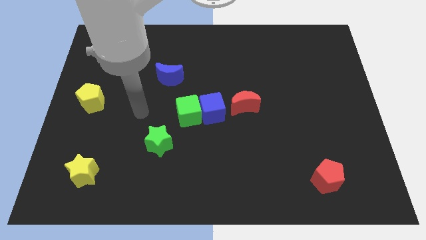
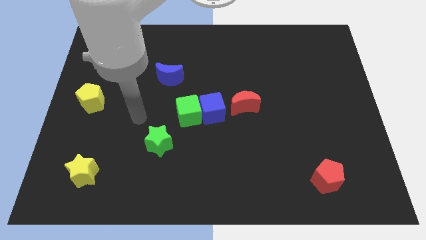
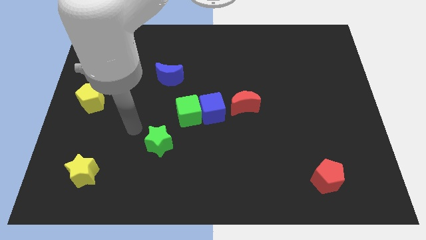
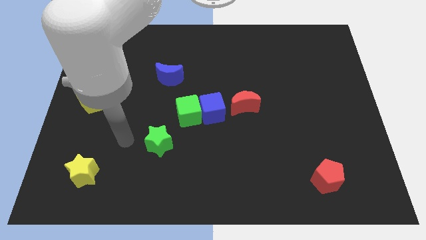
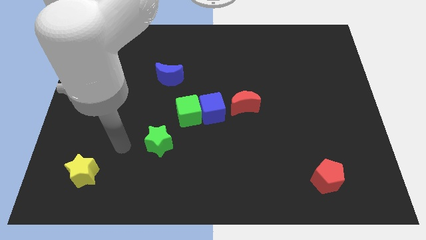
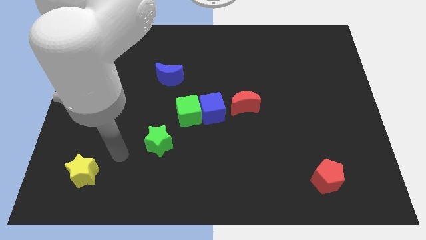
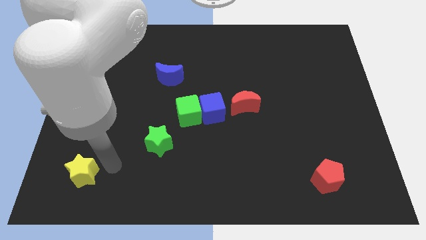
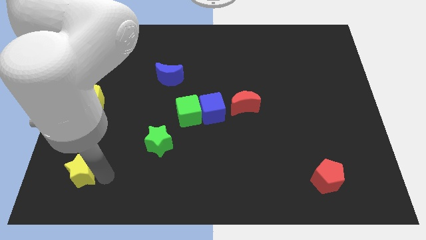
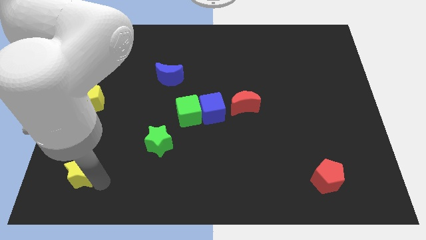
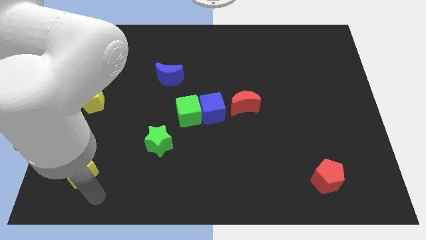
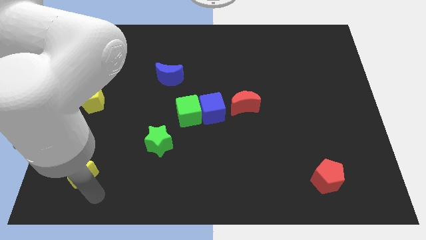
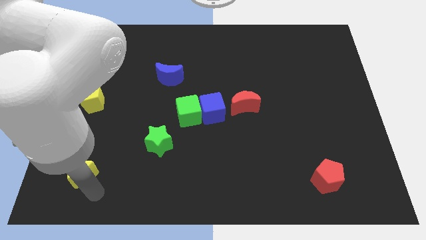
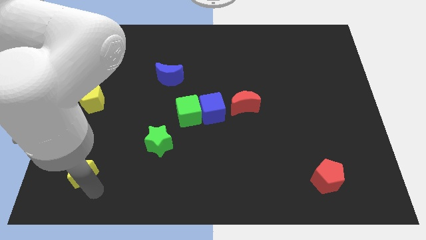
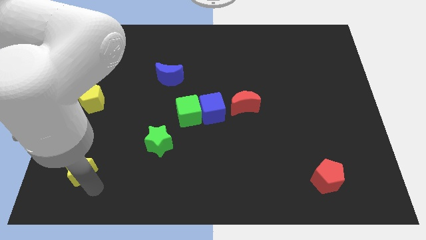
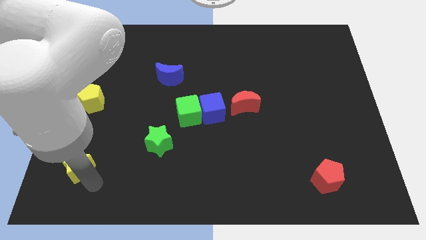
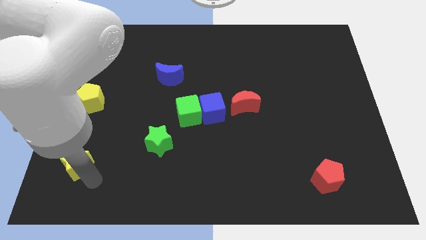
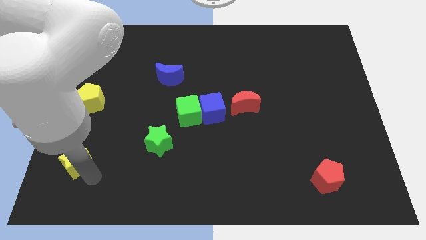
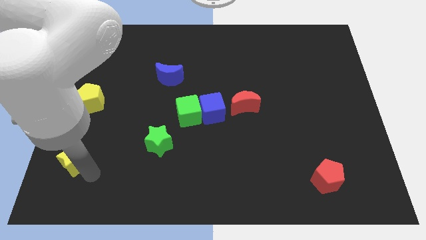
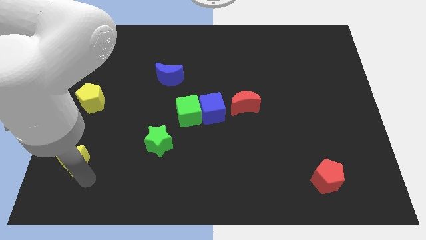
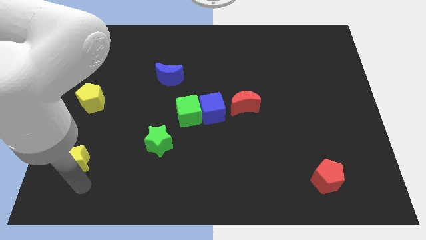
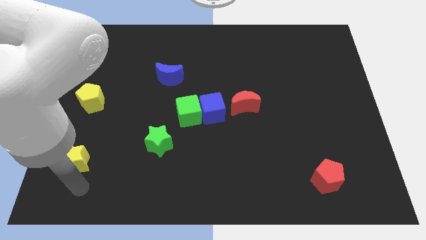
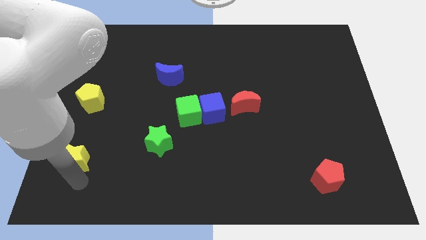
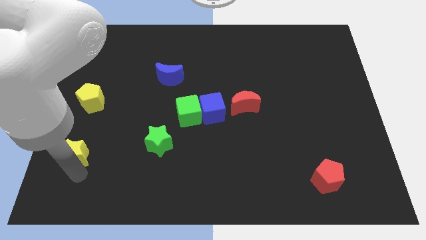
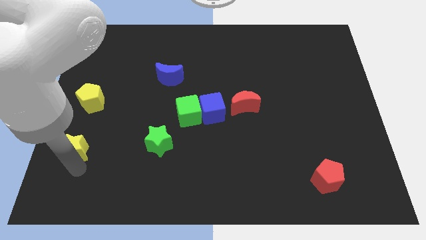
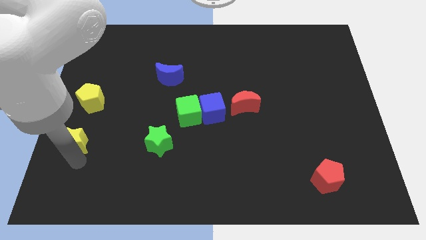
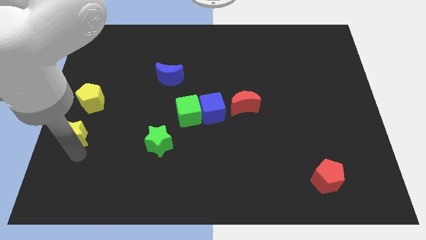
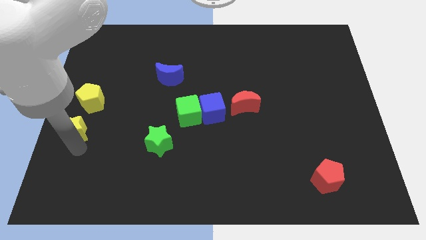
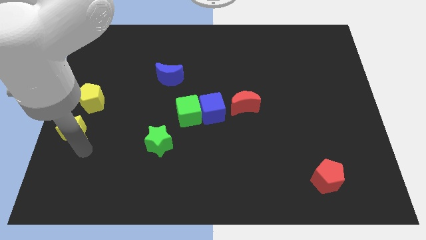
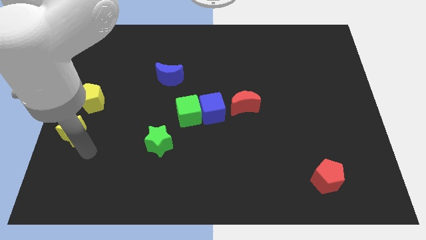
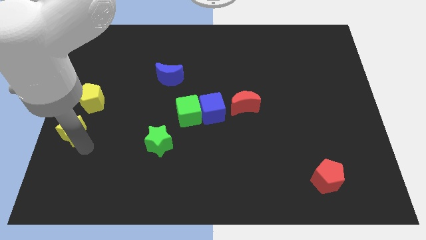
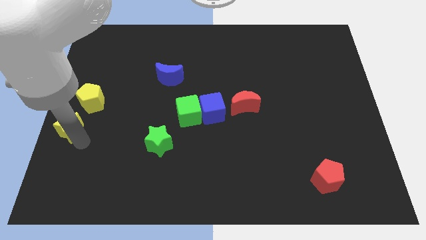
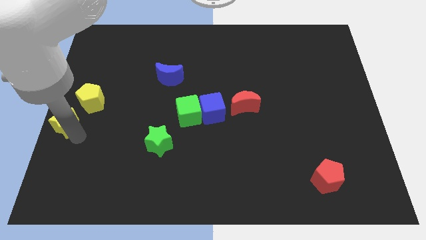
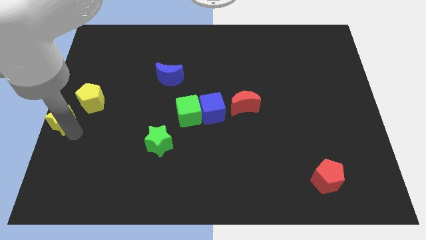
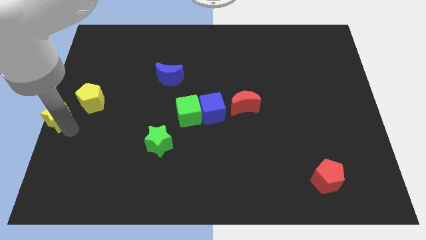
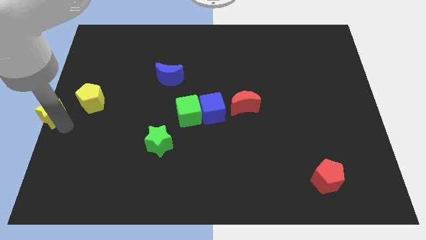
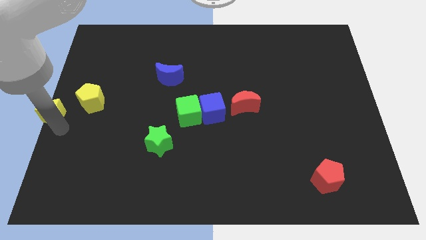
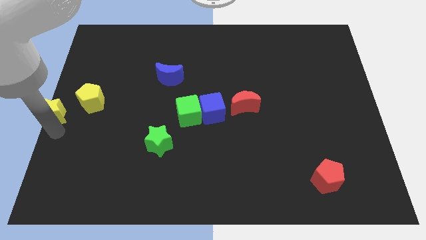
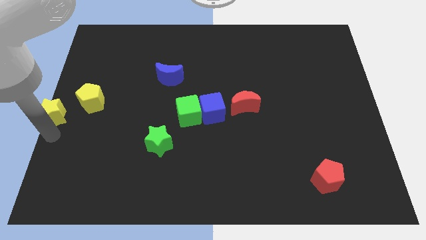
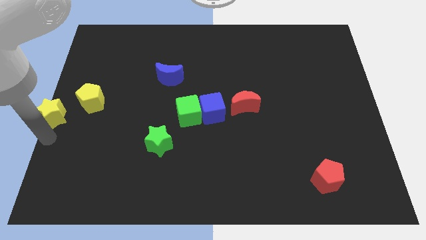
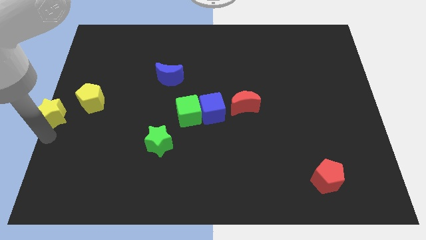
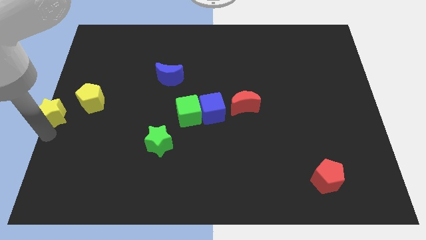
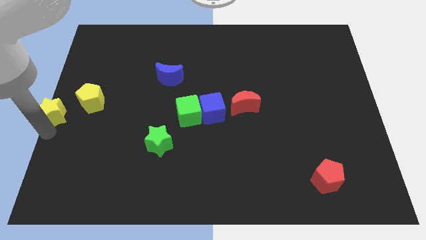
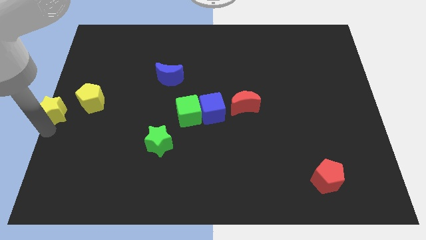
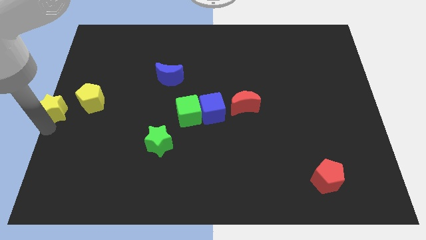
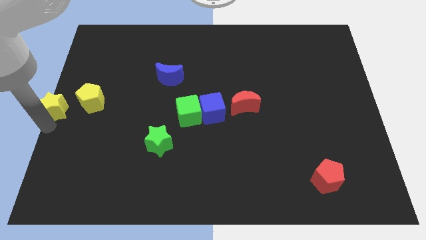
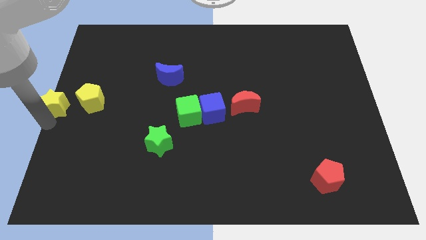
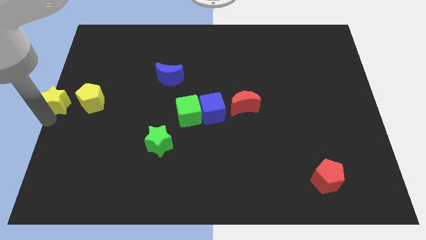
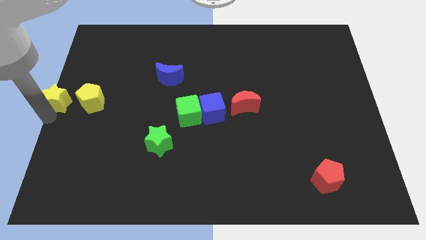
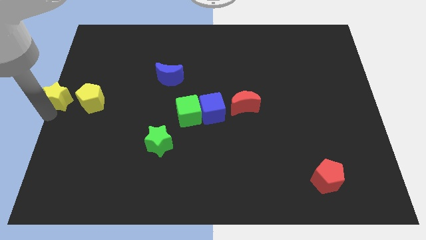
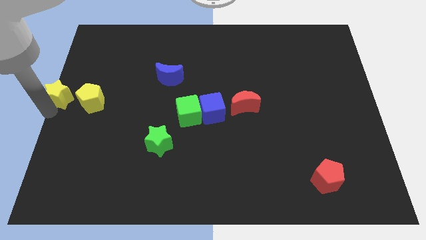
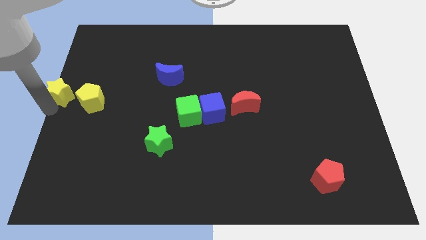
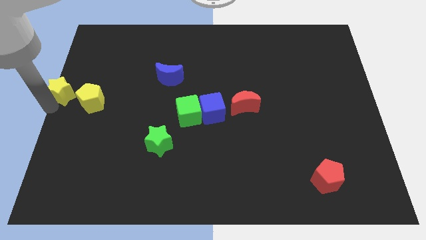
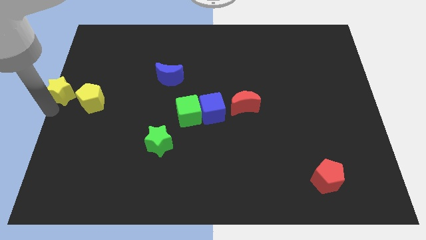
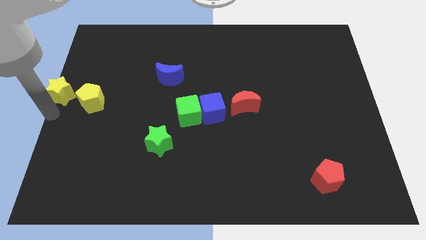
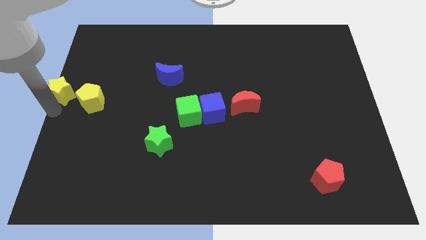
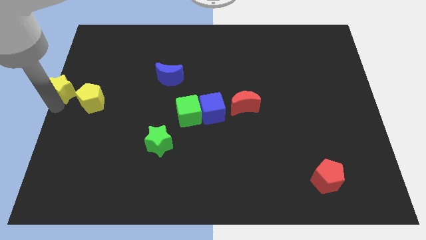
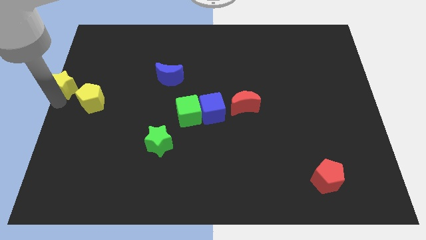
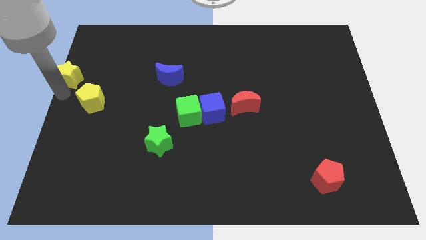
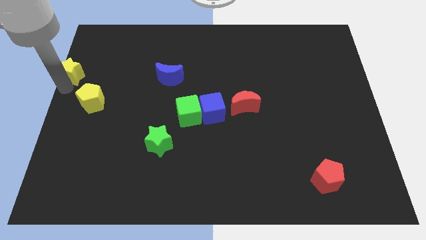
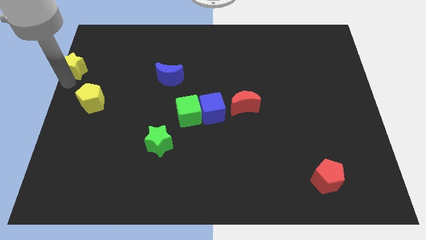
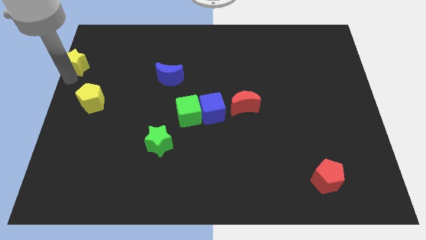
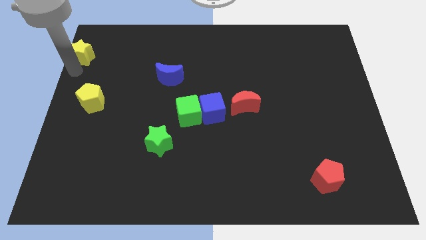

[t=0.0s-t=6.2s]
slide the yellow star to the top left of the board
